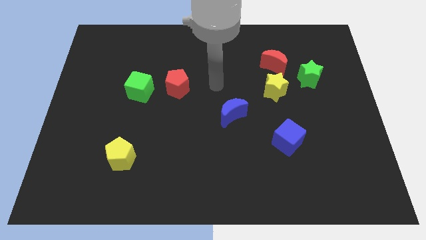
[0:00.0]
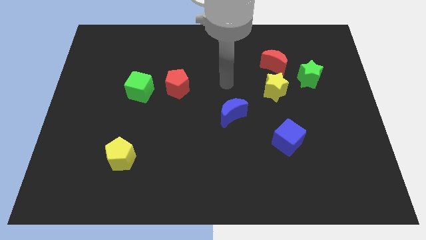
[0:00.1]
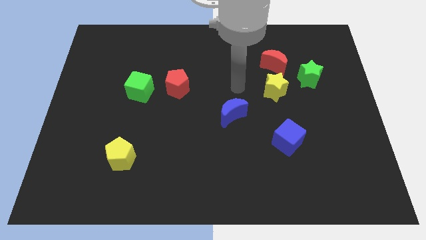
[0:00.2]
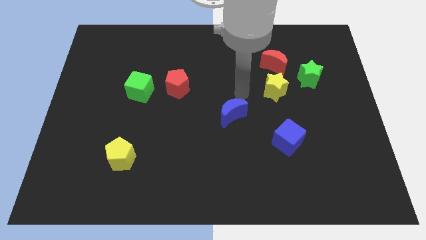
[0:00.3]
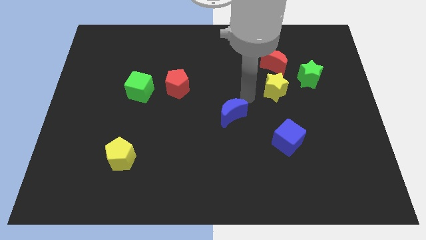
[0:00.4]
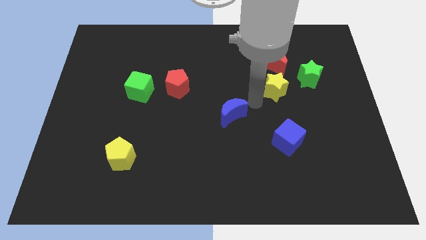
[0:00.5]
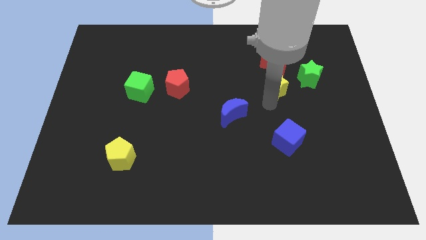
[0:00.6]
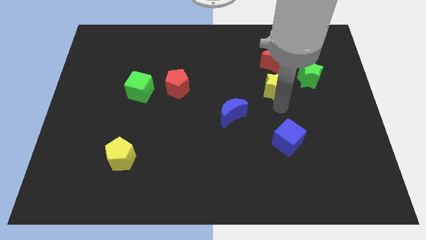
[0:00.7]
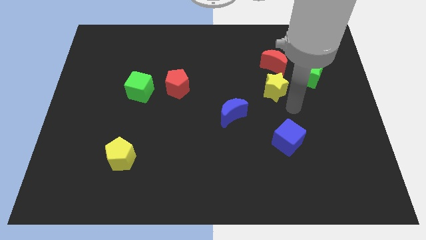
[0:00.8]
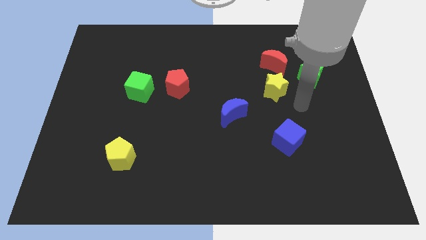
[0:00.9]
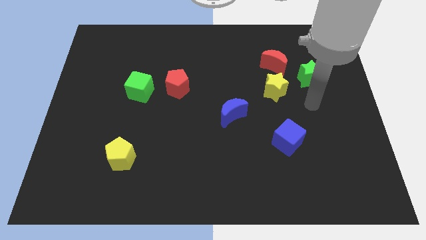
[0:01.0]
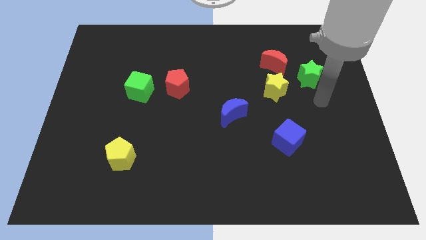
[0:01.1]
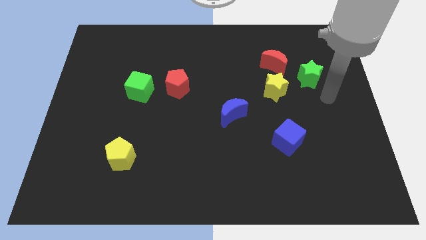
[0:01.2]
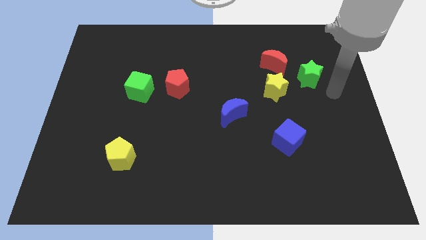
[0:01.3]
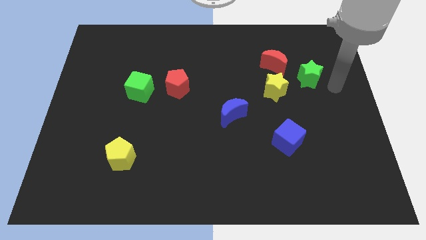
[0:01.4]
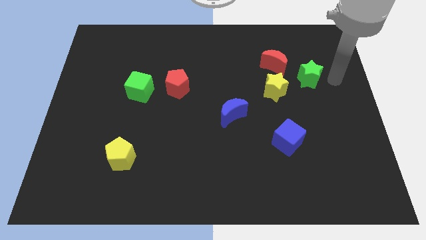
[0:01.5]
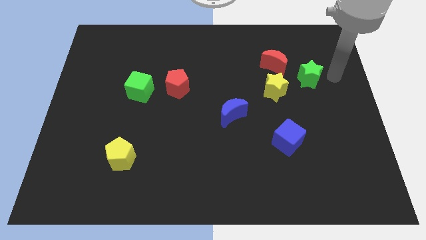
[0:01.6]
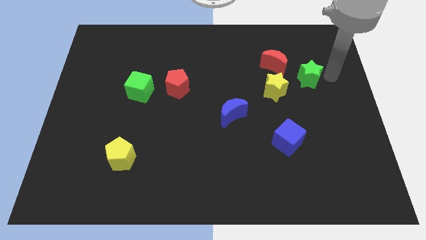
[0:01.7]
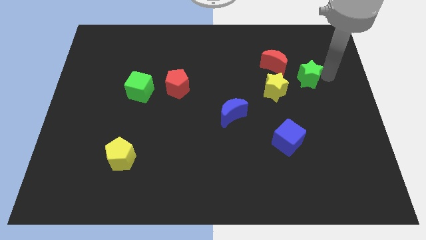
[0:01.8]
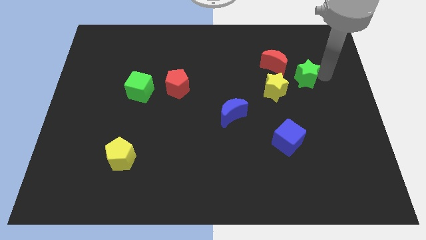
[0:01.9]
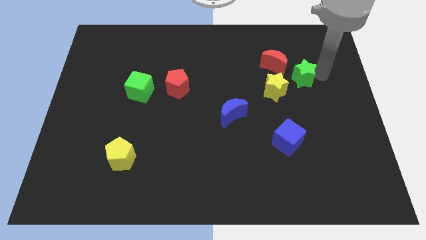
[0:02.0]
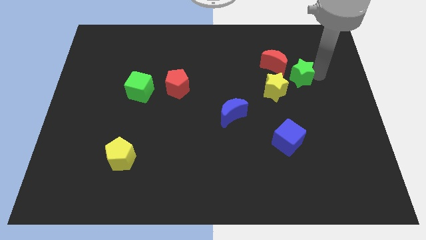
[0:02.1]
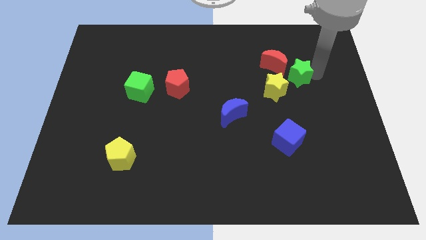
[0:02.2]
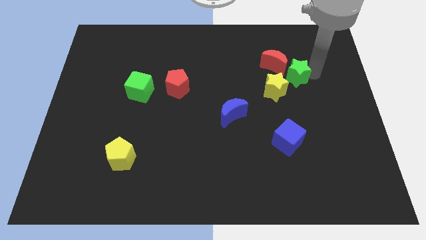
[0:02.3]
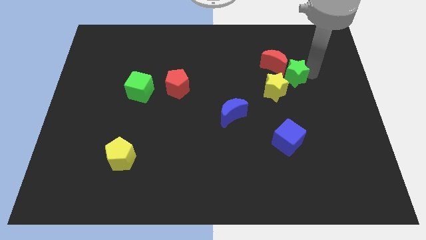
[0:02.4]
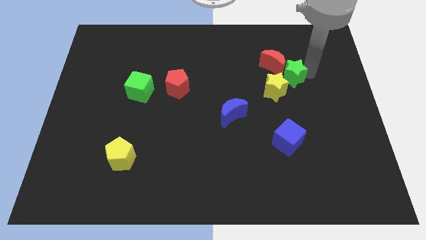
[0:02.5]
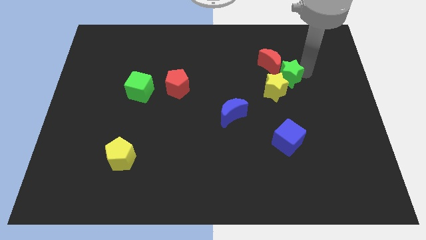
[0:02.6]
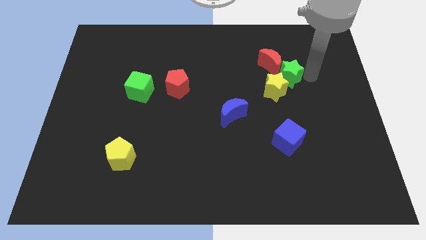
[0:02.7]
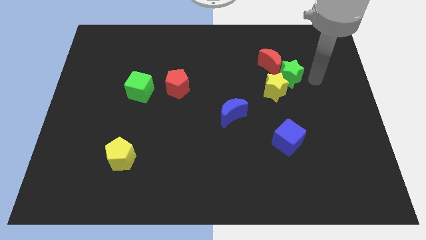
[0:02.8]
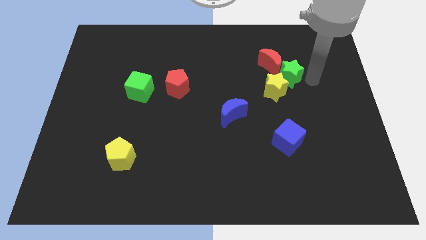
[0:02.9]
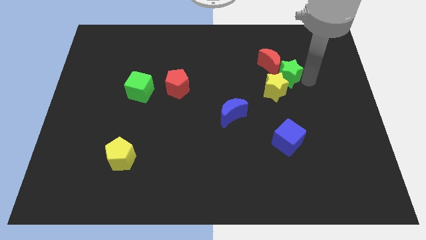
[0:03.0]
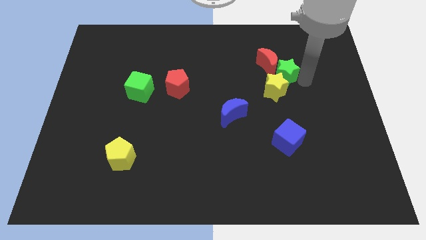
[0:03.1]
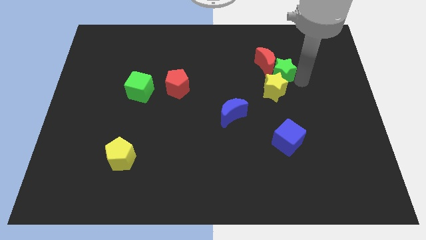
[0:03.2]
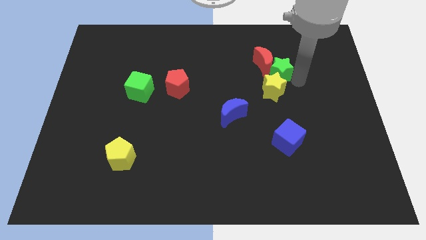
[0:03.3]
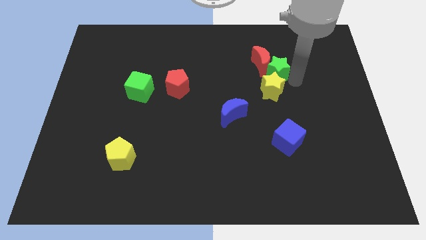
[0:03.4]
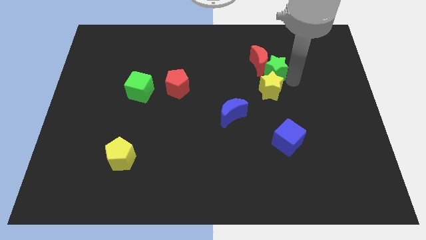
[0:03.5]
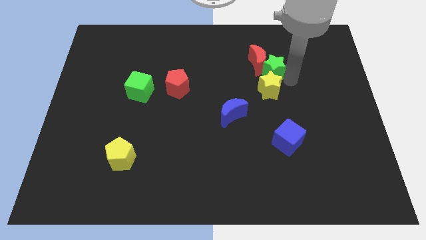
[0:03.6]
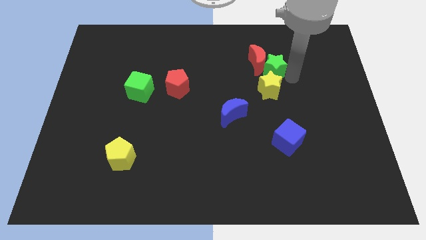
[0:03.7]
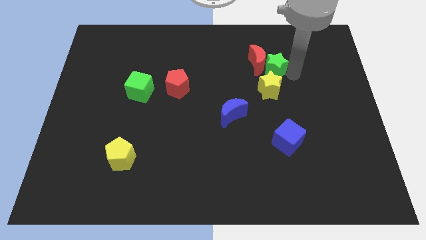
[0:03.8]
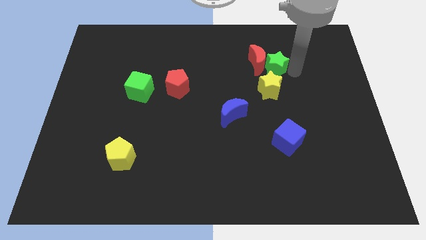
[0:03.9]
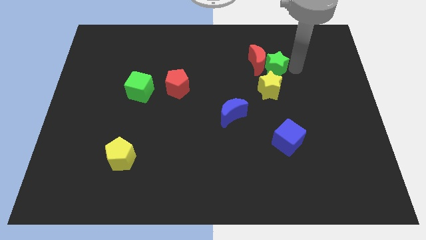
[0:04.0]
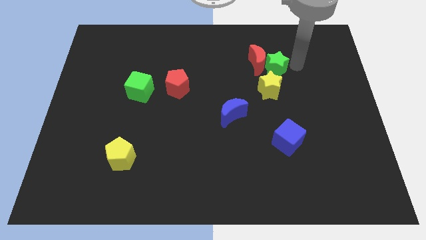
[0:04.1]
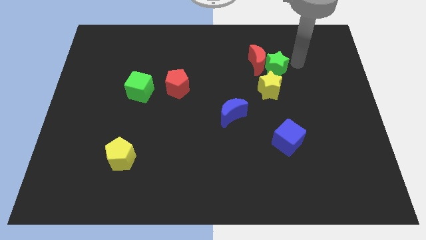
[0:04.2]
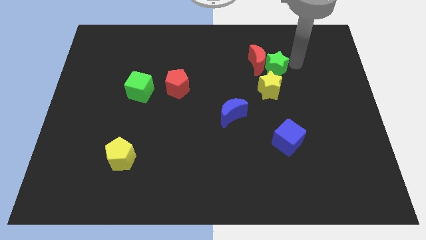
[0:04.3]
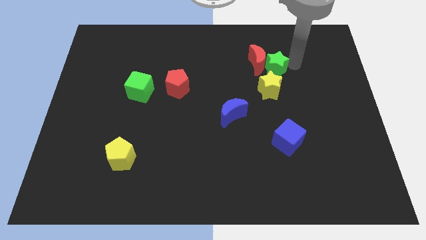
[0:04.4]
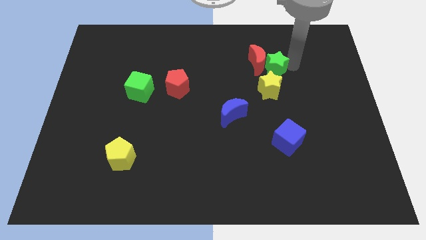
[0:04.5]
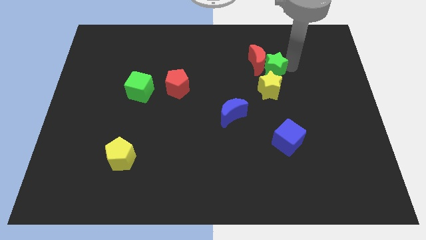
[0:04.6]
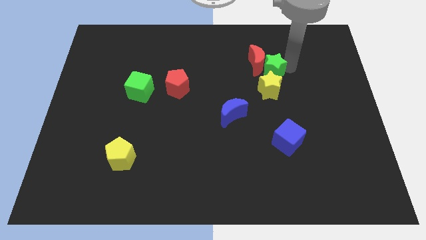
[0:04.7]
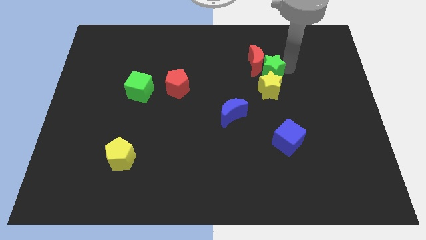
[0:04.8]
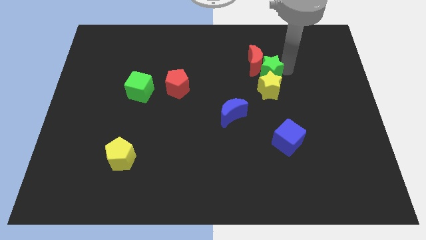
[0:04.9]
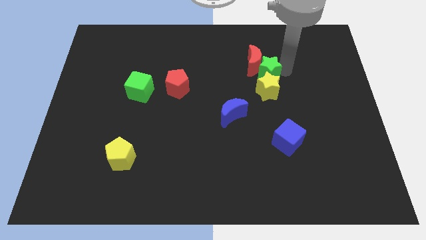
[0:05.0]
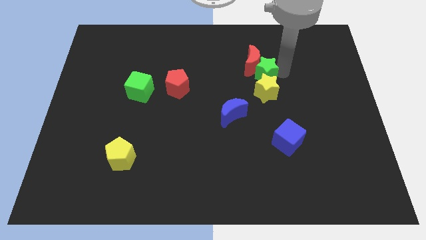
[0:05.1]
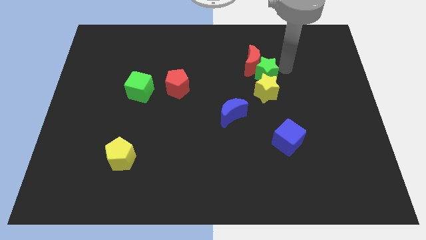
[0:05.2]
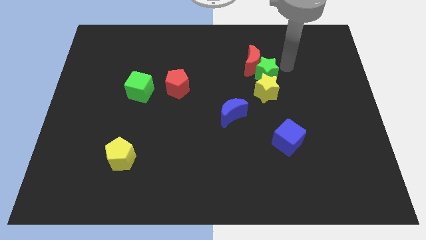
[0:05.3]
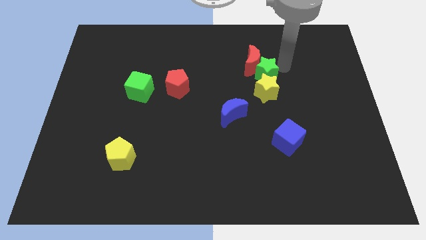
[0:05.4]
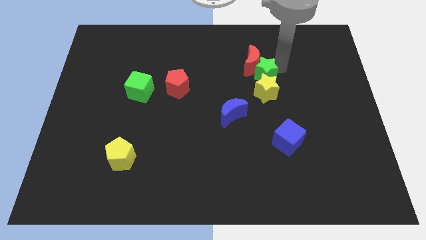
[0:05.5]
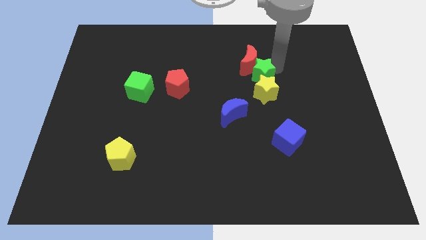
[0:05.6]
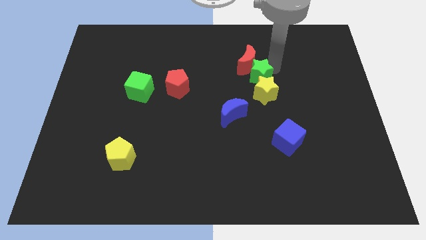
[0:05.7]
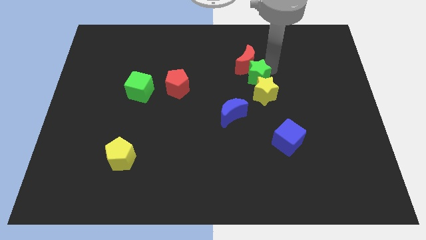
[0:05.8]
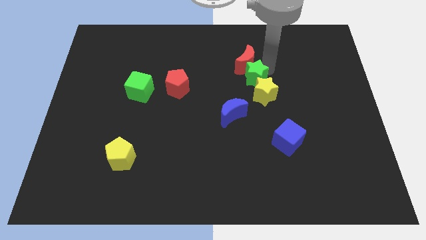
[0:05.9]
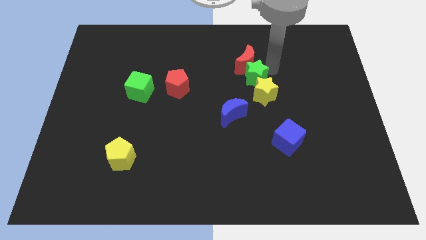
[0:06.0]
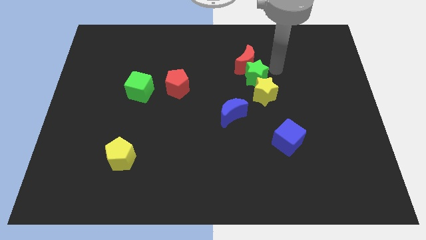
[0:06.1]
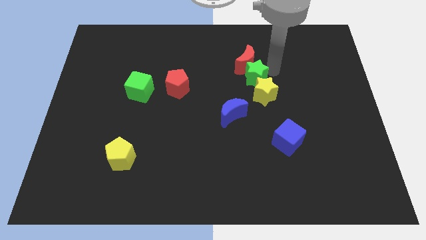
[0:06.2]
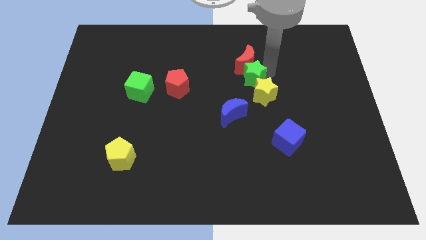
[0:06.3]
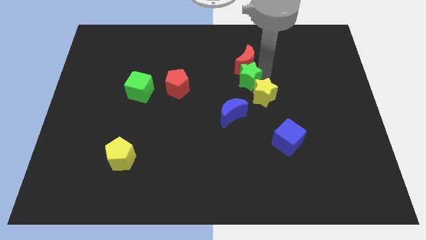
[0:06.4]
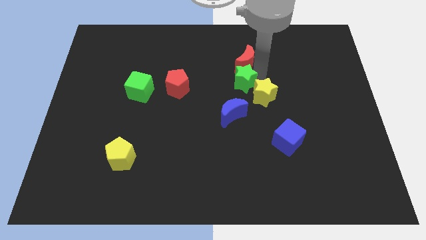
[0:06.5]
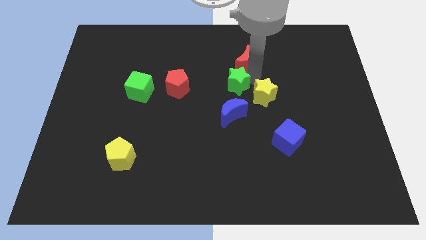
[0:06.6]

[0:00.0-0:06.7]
put the green star to the right side of the red pentagon

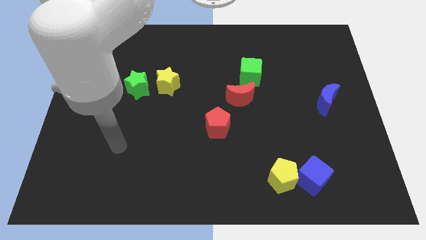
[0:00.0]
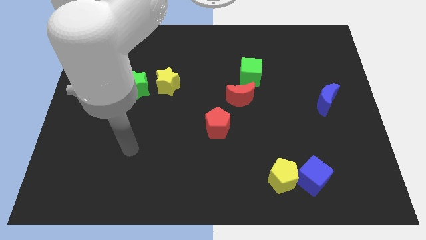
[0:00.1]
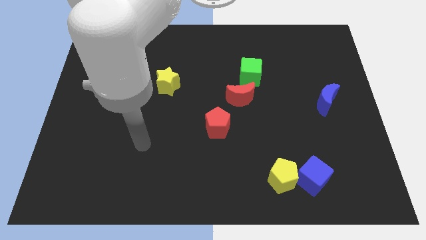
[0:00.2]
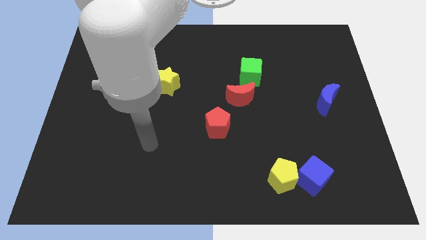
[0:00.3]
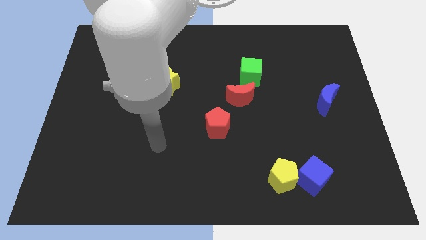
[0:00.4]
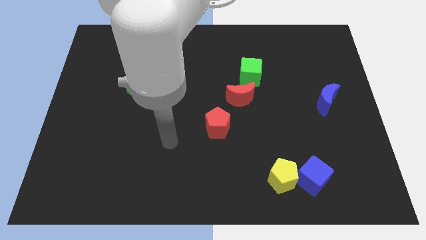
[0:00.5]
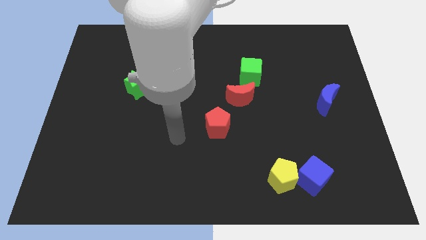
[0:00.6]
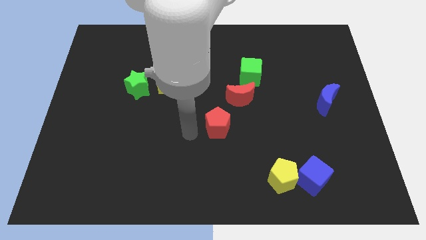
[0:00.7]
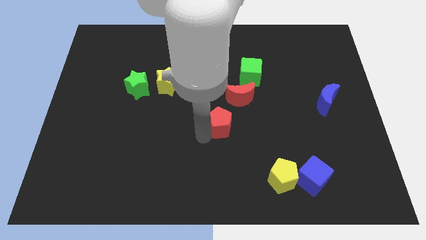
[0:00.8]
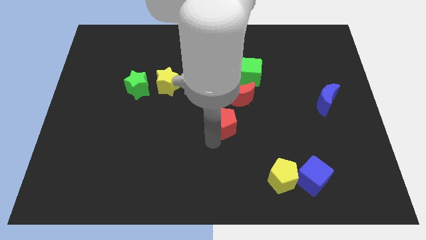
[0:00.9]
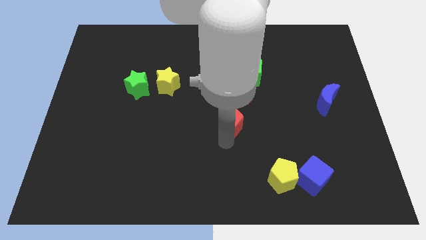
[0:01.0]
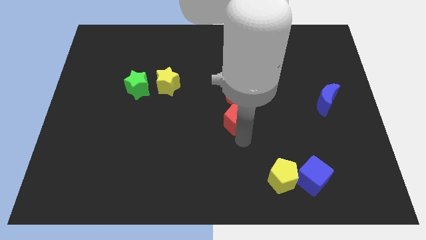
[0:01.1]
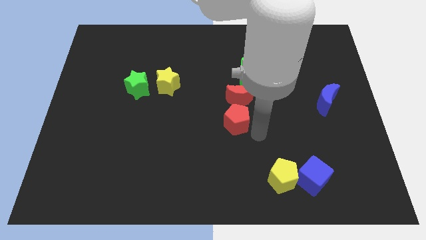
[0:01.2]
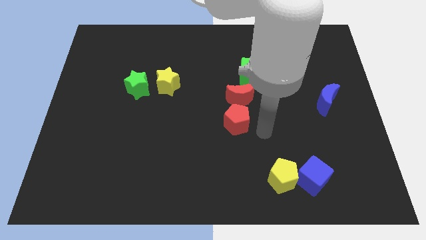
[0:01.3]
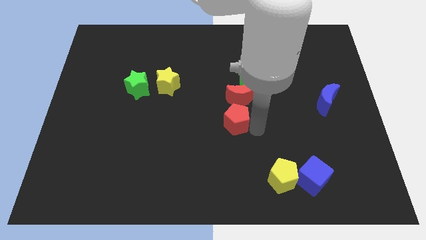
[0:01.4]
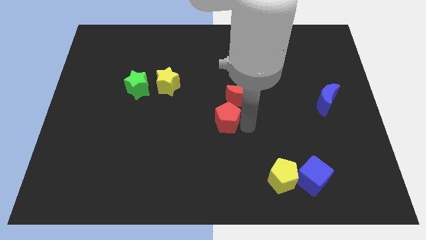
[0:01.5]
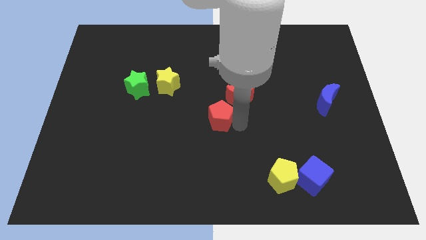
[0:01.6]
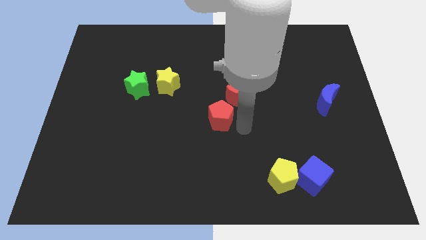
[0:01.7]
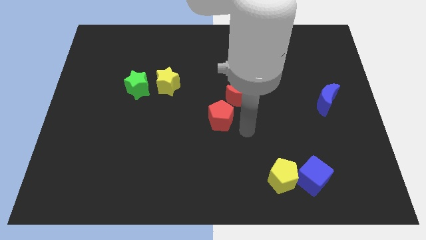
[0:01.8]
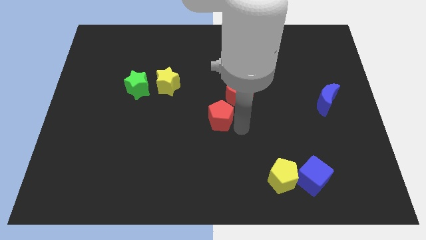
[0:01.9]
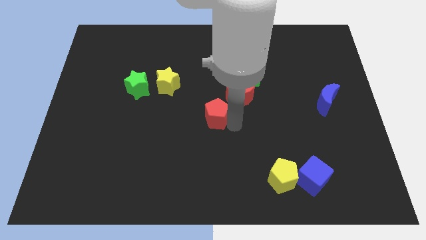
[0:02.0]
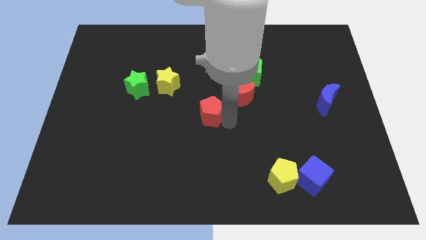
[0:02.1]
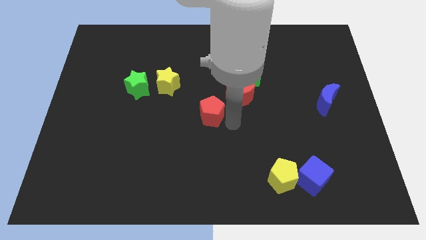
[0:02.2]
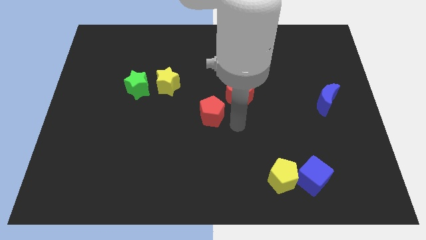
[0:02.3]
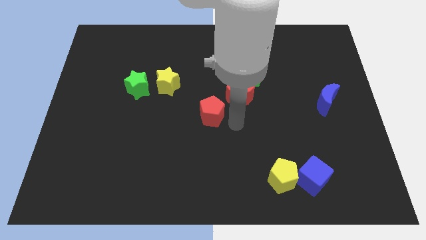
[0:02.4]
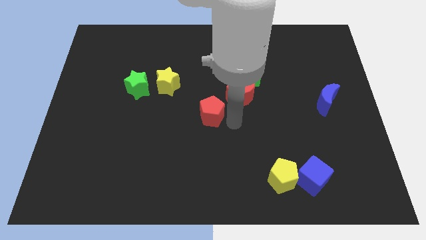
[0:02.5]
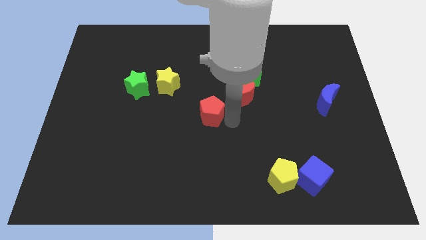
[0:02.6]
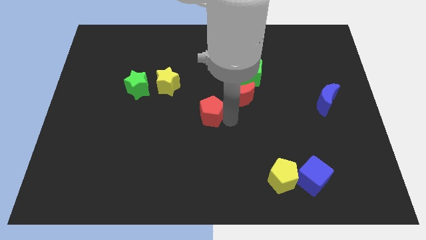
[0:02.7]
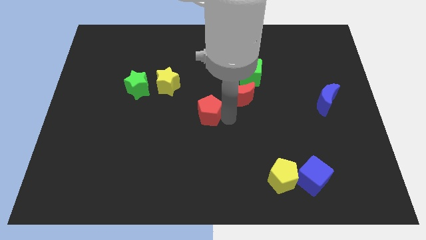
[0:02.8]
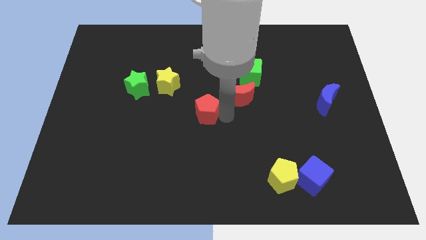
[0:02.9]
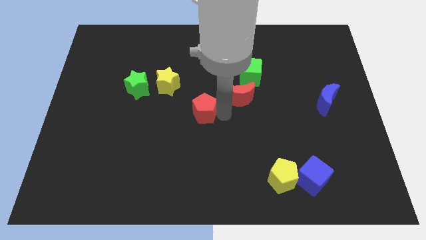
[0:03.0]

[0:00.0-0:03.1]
slide the red pentagon to the bottom right of the yellow star
